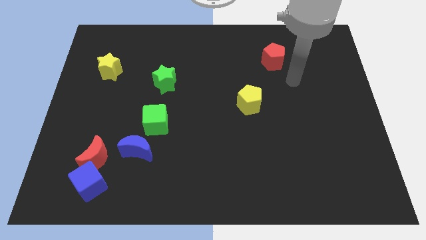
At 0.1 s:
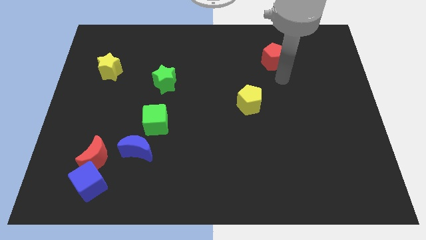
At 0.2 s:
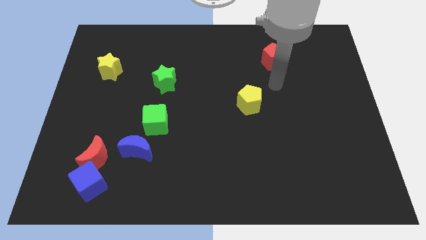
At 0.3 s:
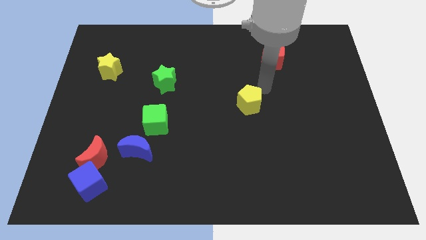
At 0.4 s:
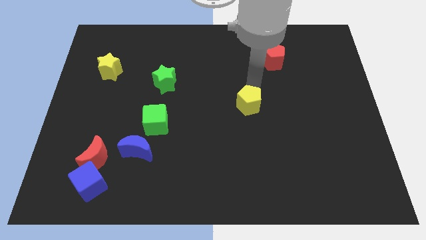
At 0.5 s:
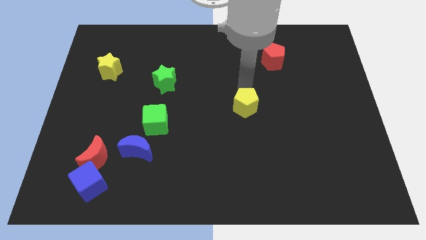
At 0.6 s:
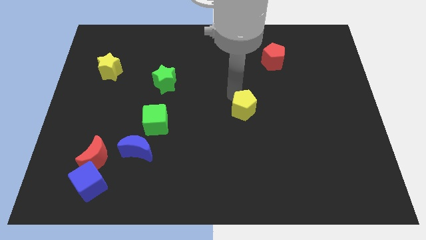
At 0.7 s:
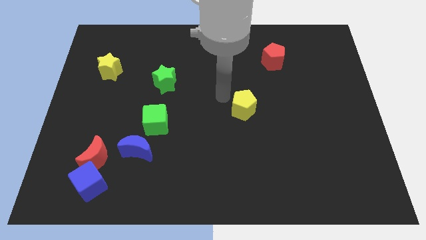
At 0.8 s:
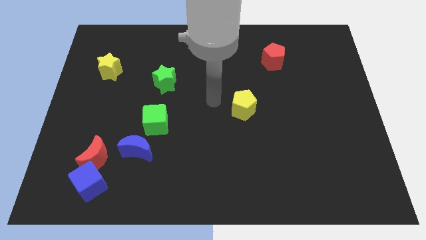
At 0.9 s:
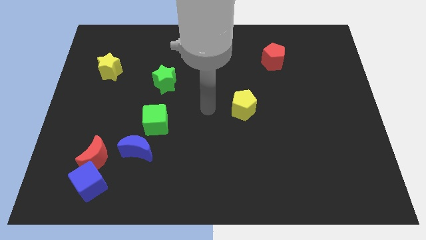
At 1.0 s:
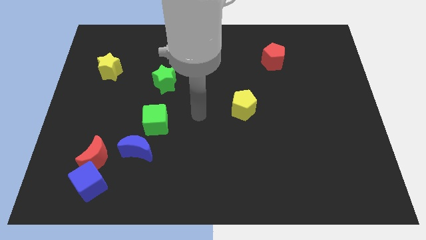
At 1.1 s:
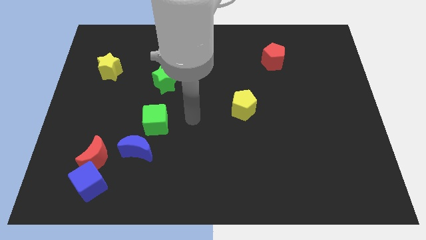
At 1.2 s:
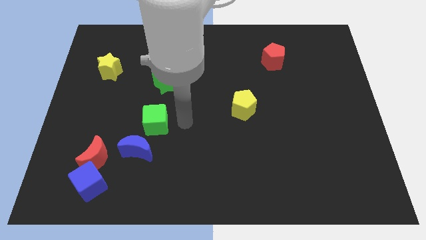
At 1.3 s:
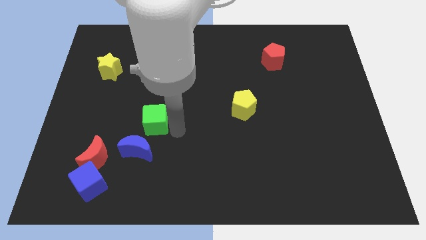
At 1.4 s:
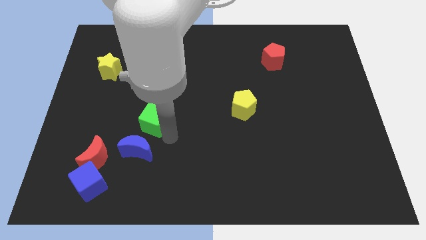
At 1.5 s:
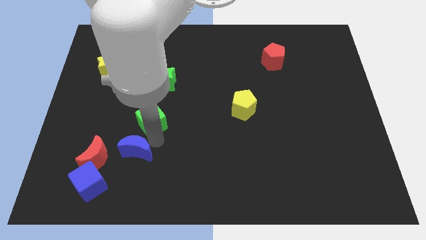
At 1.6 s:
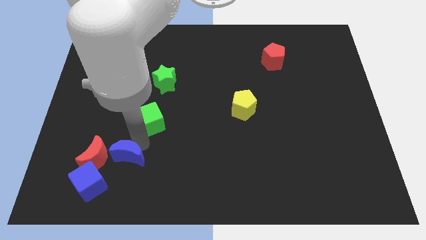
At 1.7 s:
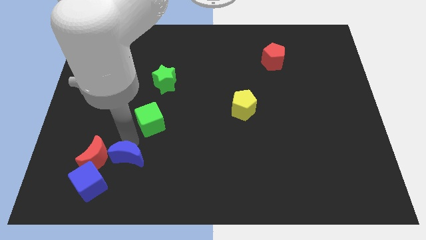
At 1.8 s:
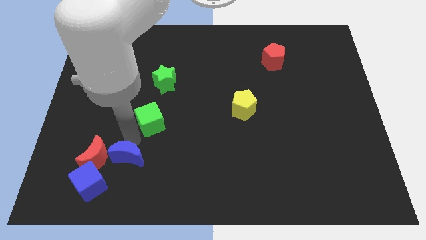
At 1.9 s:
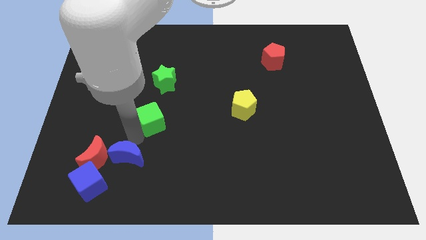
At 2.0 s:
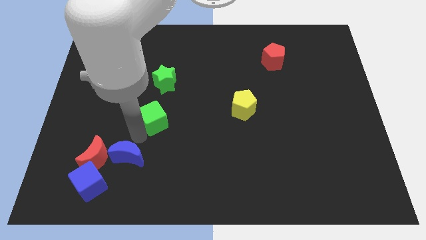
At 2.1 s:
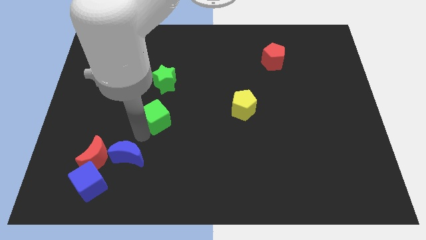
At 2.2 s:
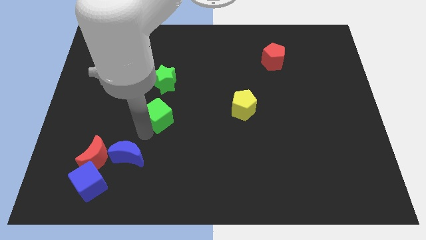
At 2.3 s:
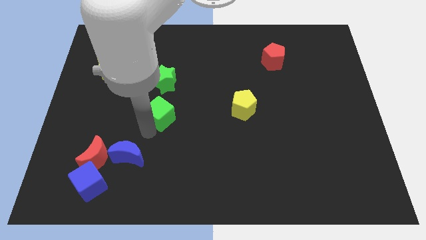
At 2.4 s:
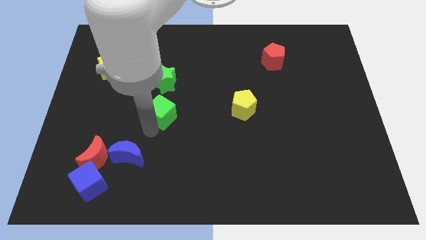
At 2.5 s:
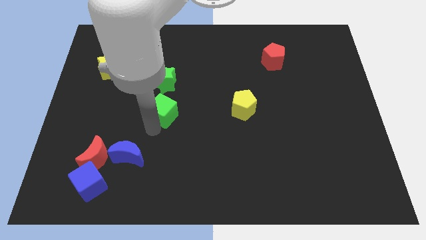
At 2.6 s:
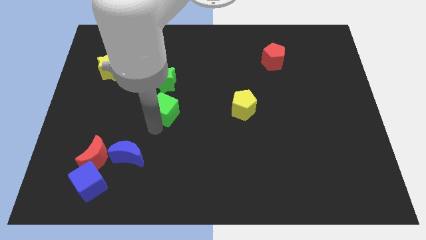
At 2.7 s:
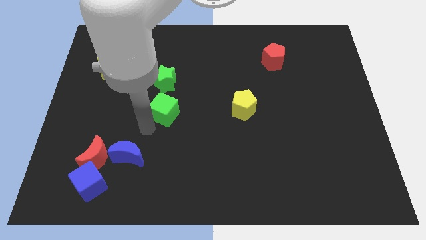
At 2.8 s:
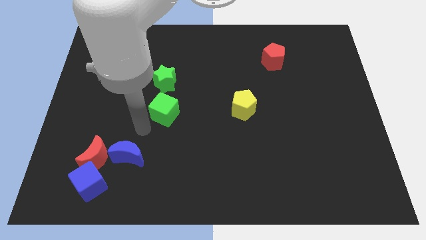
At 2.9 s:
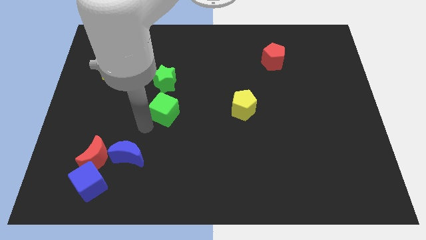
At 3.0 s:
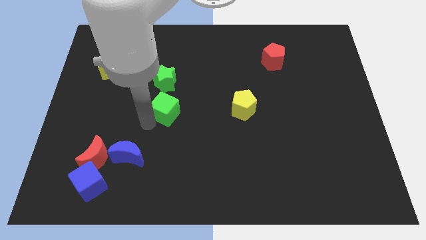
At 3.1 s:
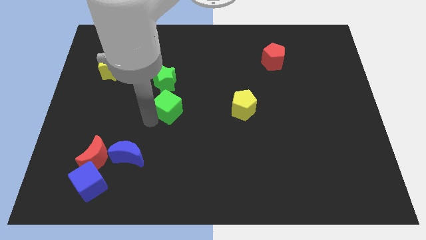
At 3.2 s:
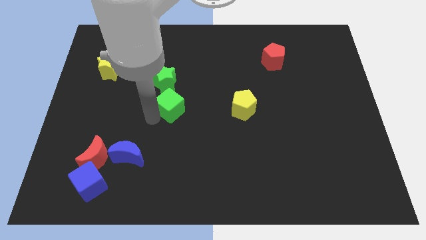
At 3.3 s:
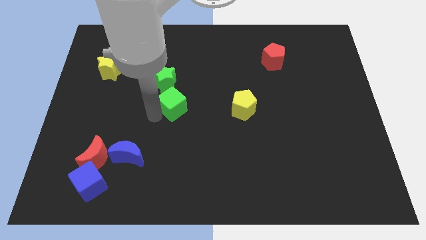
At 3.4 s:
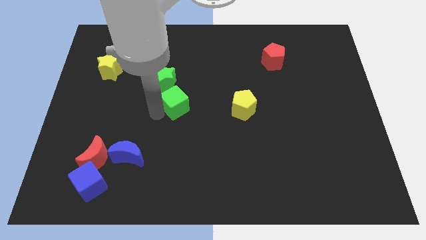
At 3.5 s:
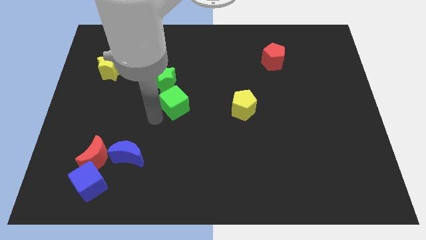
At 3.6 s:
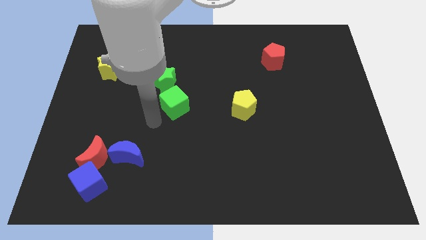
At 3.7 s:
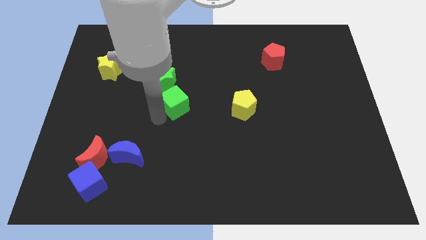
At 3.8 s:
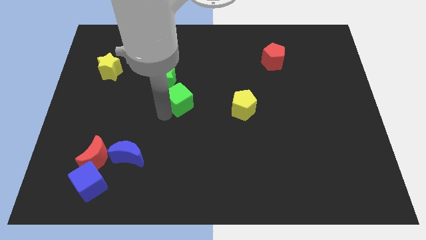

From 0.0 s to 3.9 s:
slightly slide the green cube up and to the right diagonally

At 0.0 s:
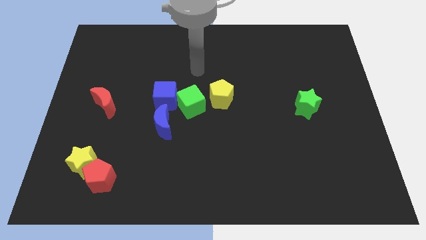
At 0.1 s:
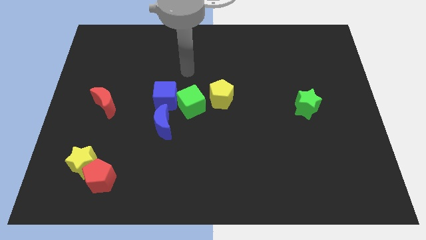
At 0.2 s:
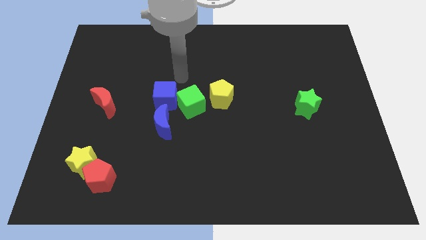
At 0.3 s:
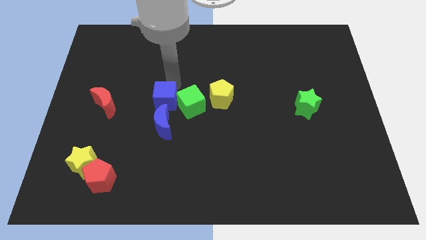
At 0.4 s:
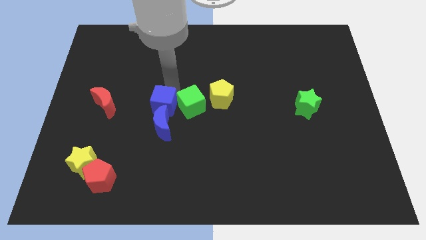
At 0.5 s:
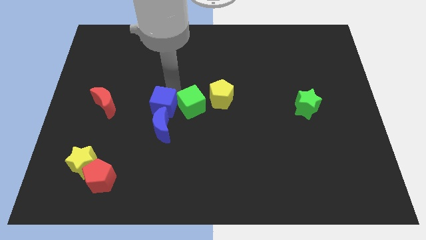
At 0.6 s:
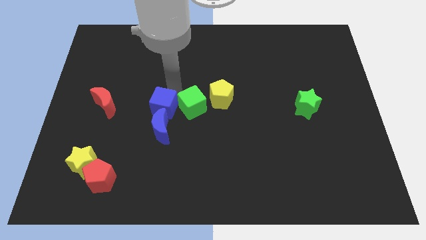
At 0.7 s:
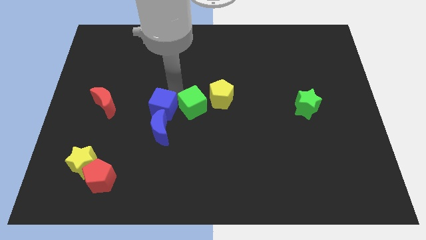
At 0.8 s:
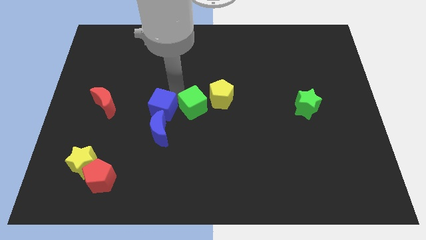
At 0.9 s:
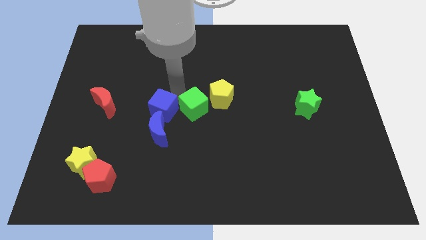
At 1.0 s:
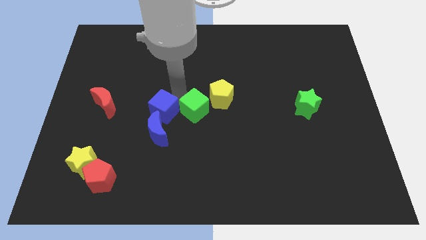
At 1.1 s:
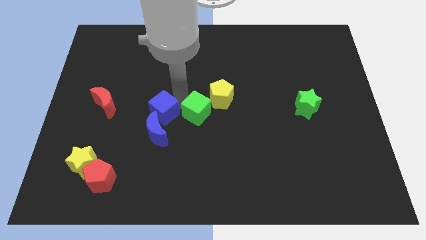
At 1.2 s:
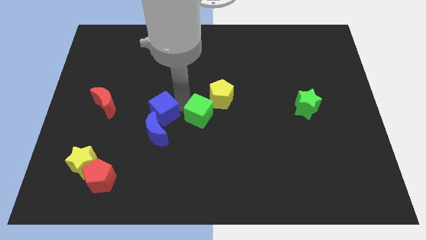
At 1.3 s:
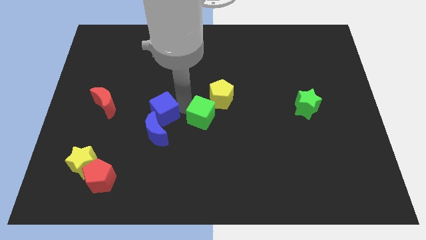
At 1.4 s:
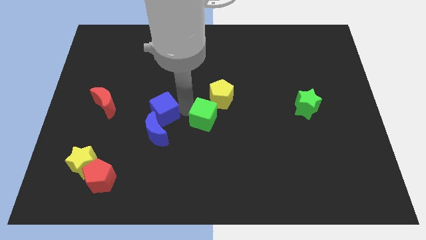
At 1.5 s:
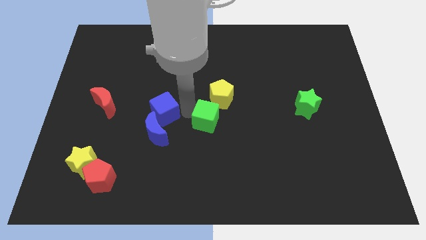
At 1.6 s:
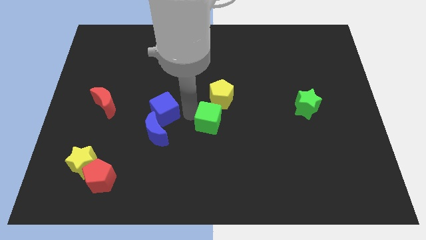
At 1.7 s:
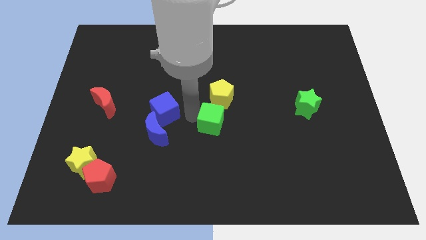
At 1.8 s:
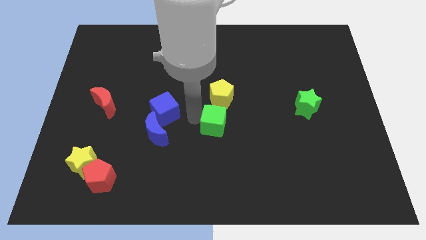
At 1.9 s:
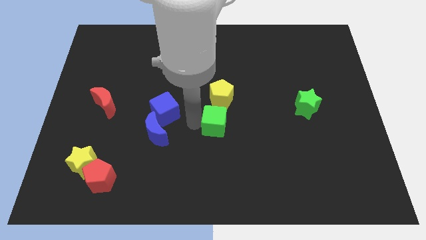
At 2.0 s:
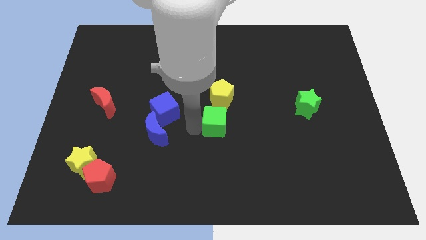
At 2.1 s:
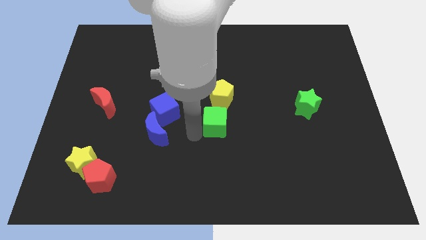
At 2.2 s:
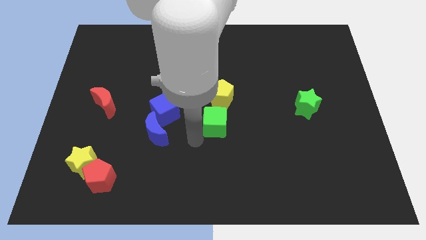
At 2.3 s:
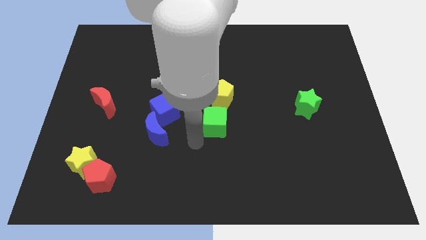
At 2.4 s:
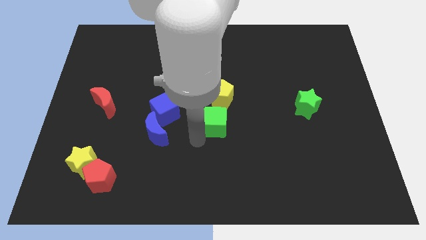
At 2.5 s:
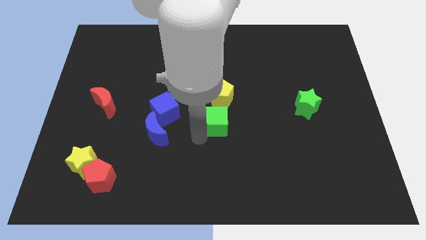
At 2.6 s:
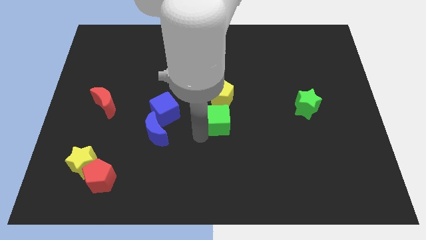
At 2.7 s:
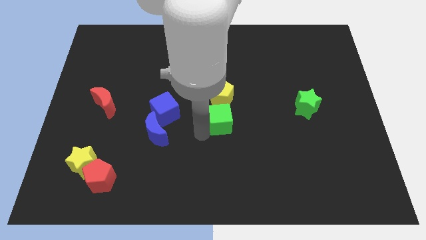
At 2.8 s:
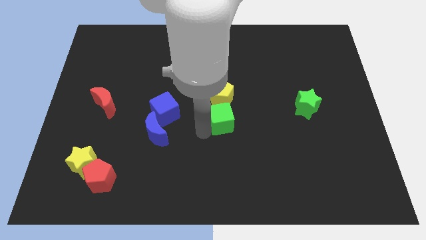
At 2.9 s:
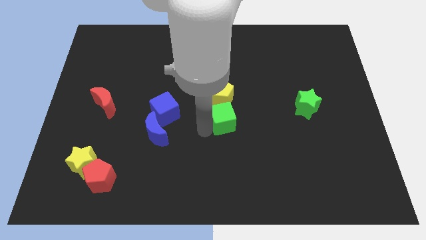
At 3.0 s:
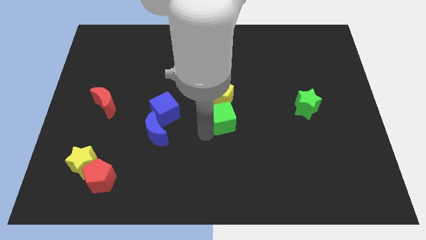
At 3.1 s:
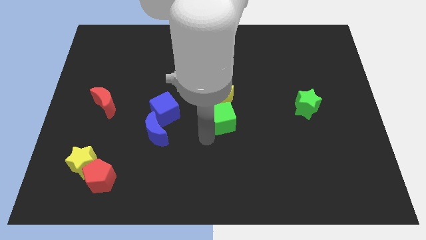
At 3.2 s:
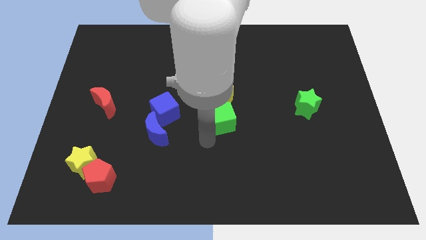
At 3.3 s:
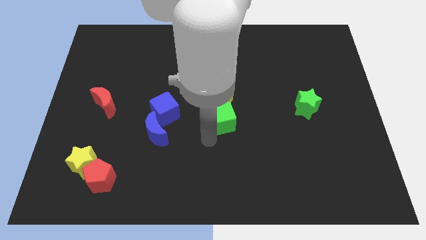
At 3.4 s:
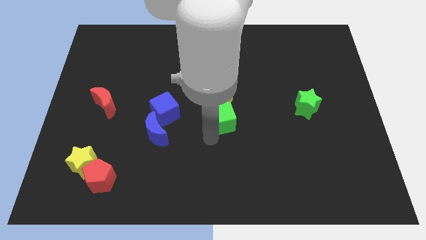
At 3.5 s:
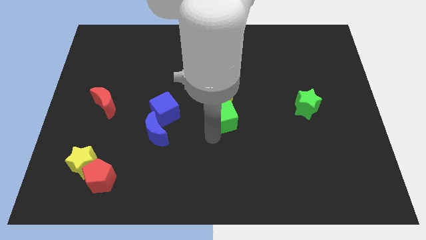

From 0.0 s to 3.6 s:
push the green cube to the right somewhat

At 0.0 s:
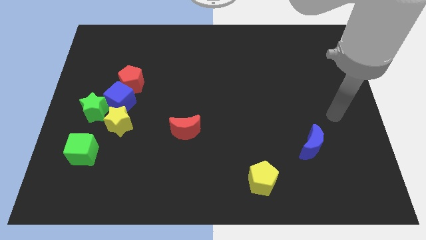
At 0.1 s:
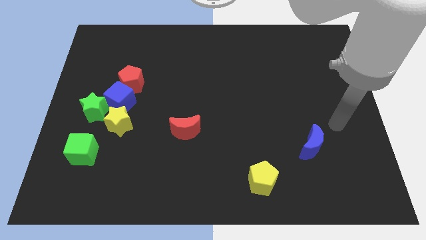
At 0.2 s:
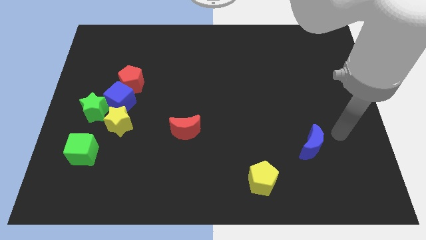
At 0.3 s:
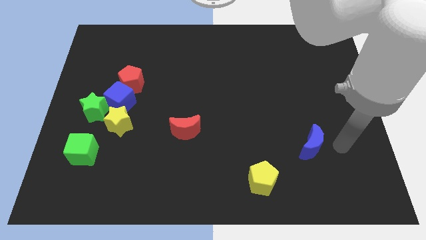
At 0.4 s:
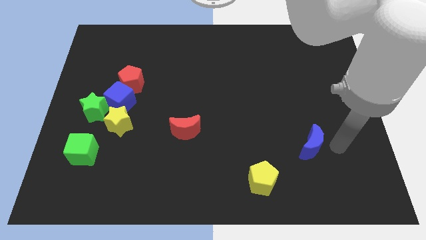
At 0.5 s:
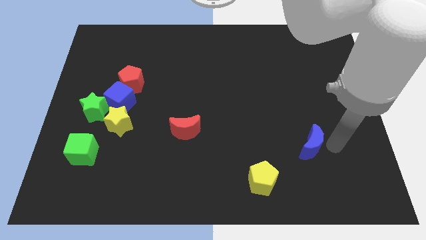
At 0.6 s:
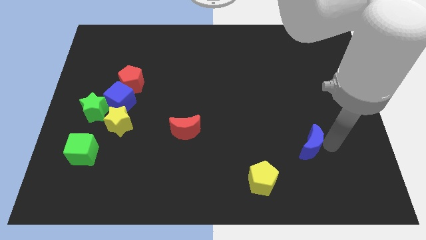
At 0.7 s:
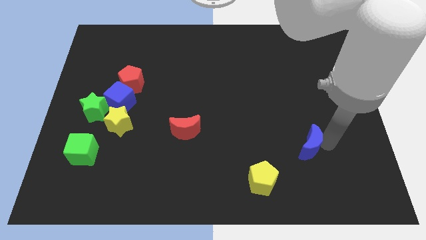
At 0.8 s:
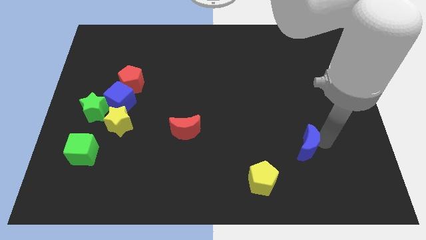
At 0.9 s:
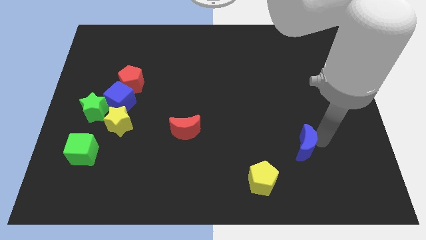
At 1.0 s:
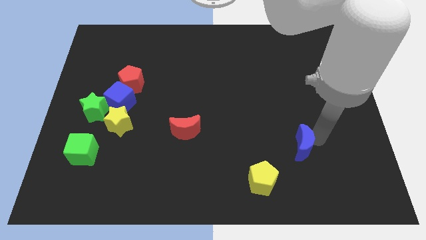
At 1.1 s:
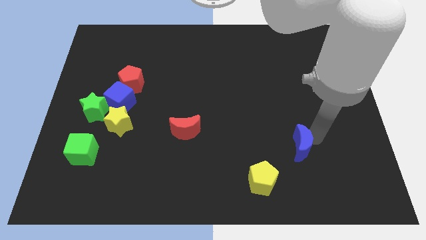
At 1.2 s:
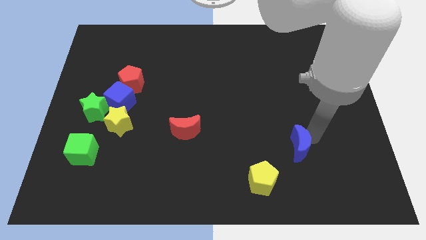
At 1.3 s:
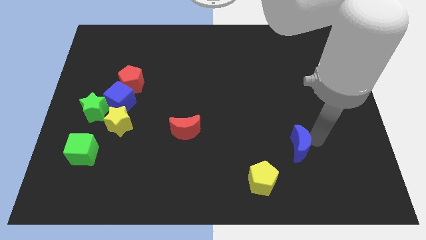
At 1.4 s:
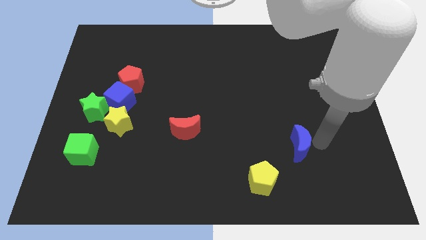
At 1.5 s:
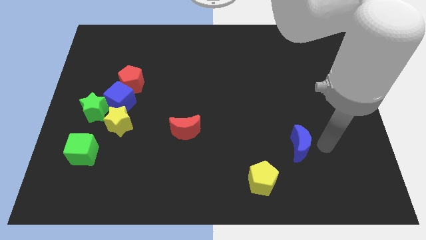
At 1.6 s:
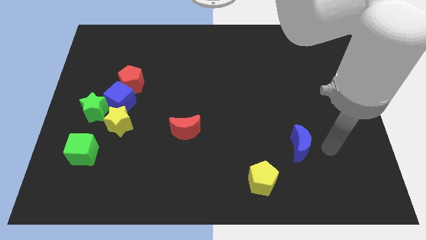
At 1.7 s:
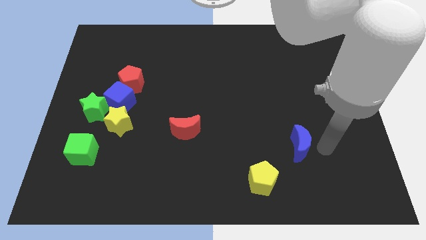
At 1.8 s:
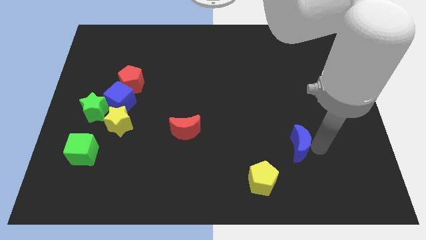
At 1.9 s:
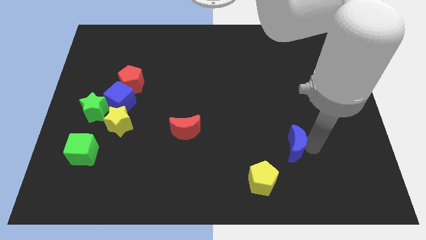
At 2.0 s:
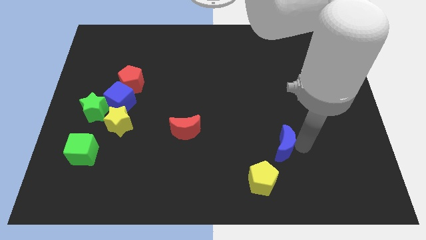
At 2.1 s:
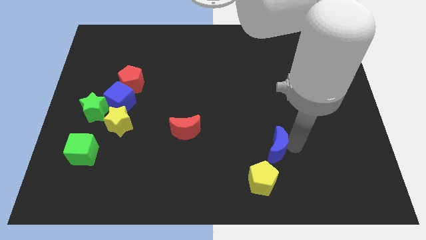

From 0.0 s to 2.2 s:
move the blue moon left slightly
